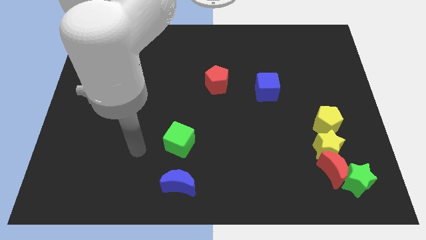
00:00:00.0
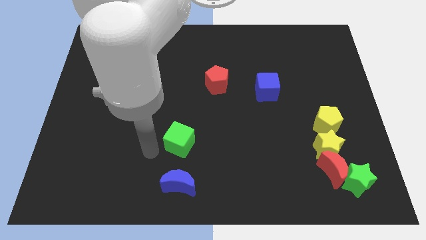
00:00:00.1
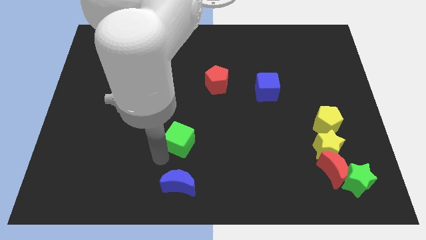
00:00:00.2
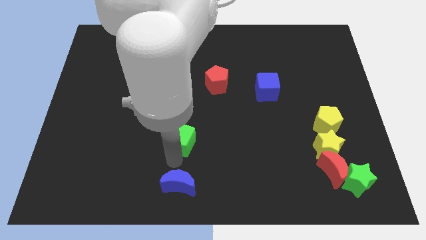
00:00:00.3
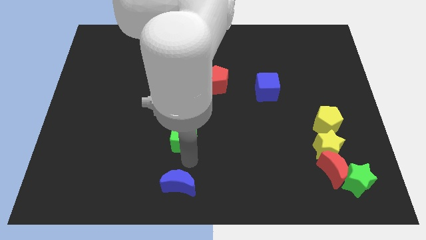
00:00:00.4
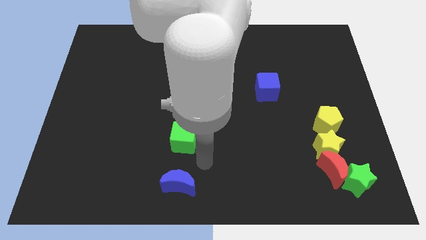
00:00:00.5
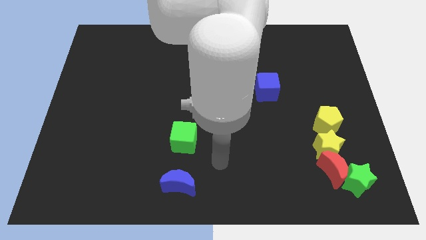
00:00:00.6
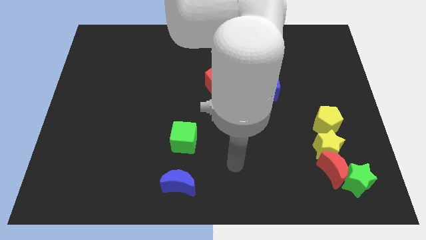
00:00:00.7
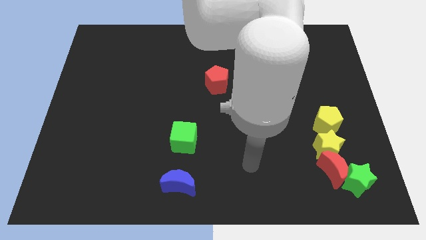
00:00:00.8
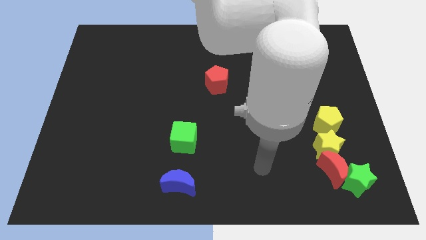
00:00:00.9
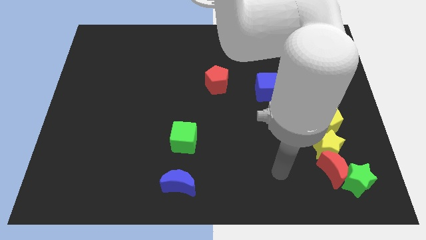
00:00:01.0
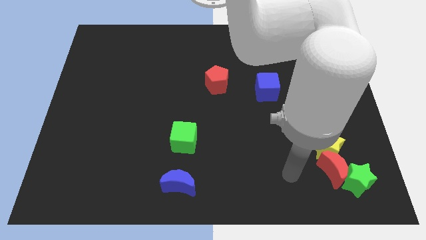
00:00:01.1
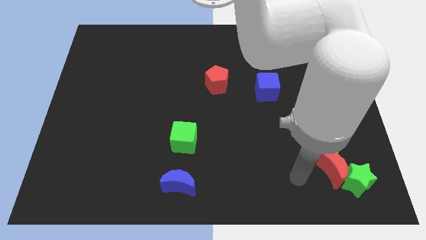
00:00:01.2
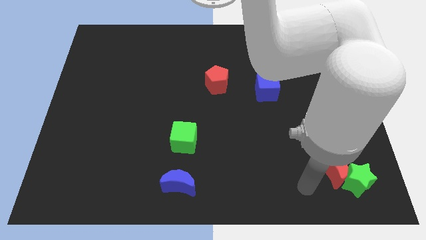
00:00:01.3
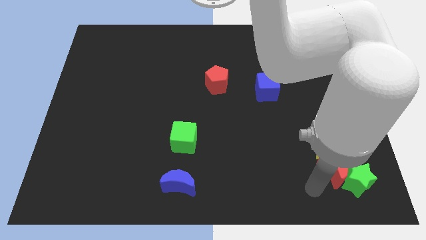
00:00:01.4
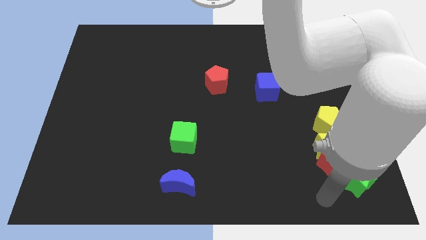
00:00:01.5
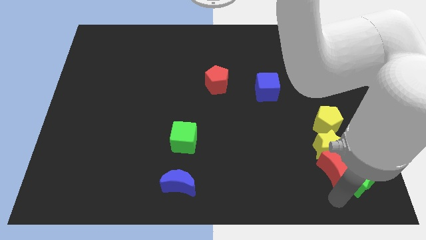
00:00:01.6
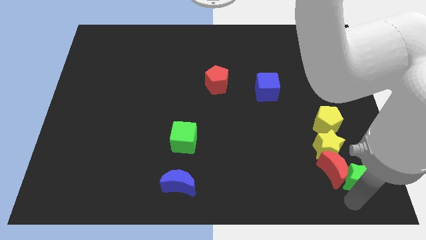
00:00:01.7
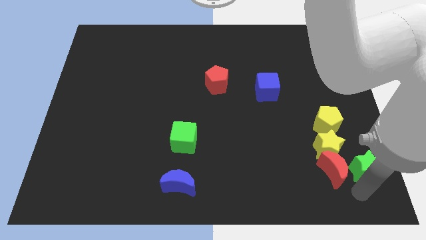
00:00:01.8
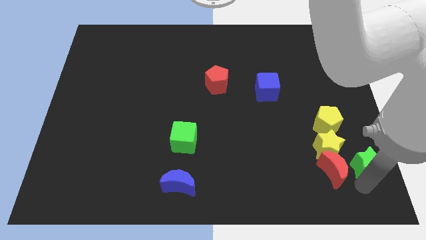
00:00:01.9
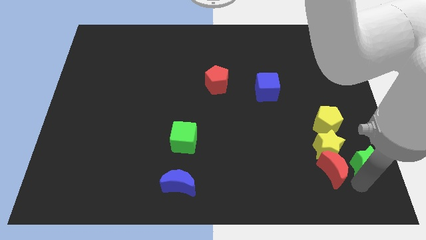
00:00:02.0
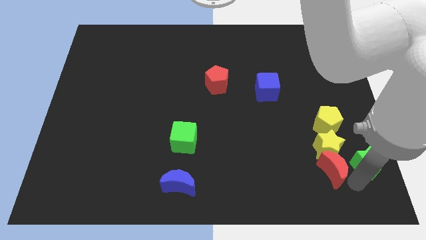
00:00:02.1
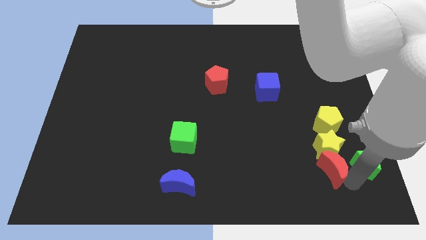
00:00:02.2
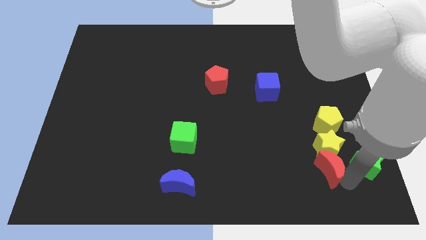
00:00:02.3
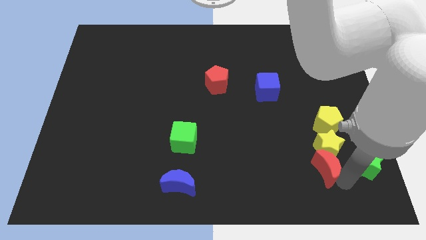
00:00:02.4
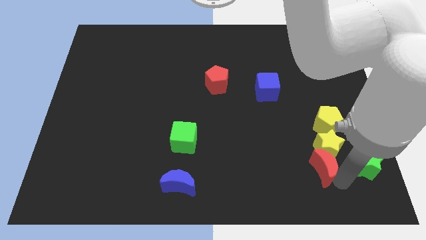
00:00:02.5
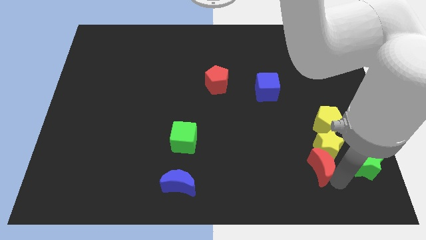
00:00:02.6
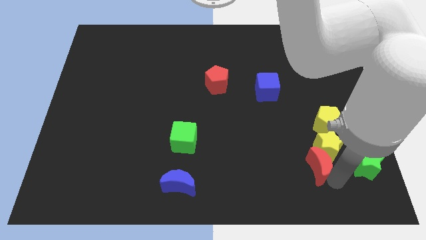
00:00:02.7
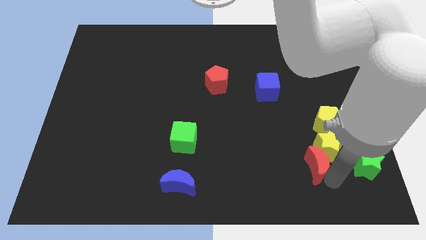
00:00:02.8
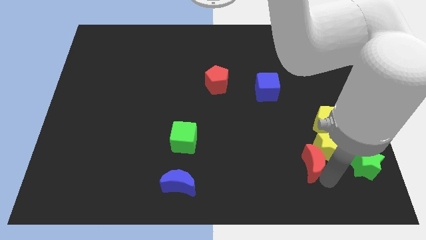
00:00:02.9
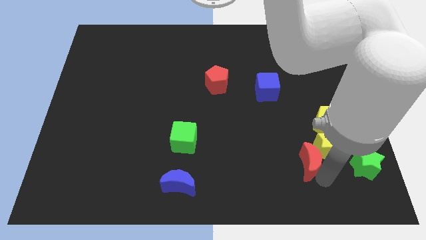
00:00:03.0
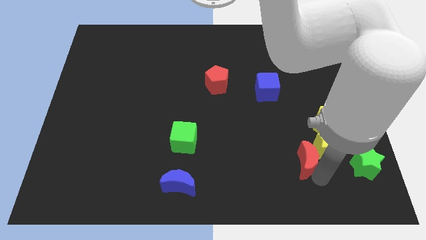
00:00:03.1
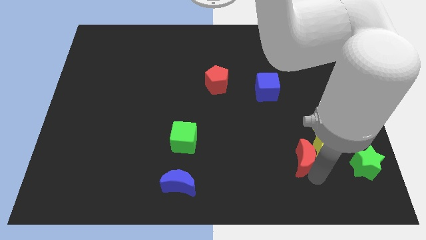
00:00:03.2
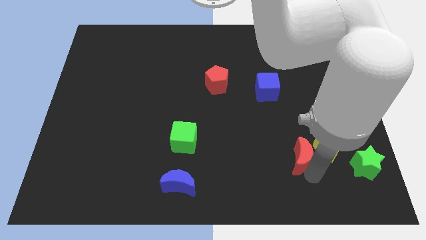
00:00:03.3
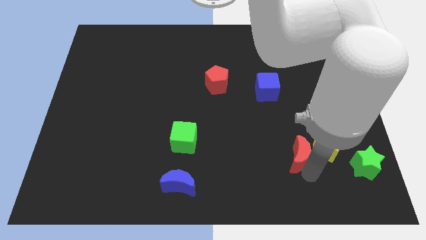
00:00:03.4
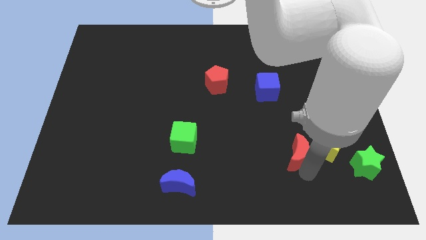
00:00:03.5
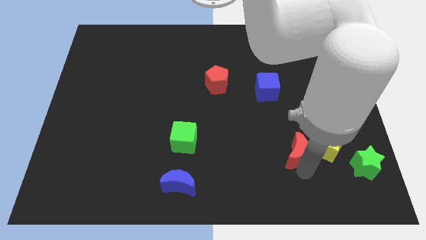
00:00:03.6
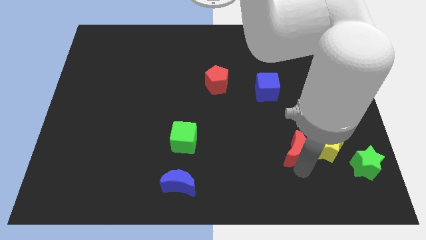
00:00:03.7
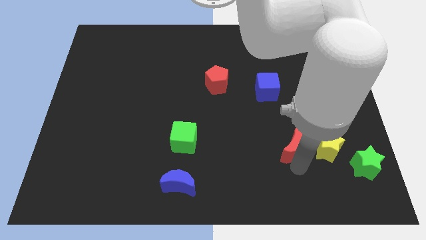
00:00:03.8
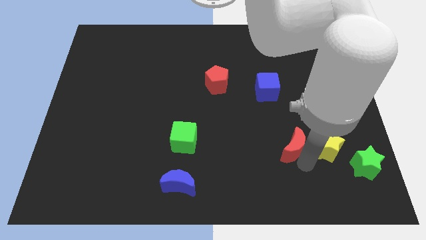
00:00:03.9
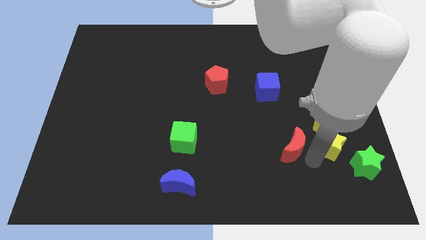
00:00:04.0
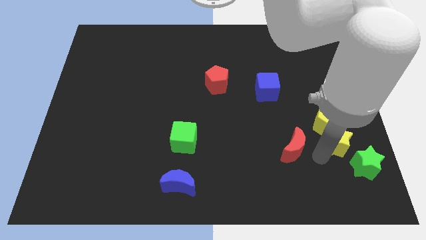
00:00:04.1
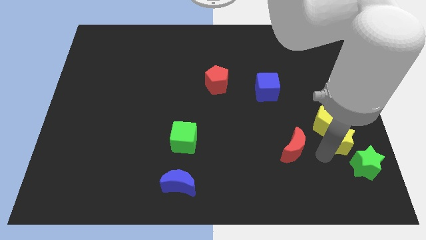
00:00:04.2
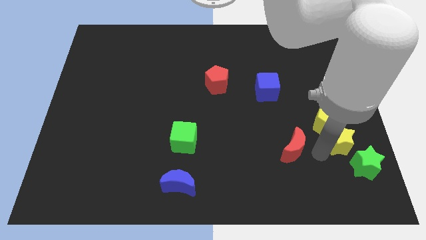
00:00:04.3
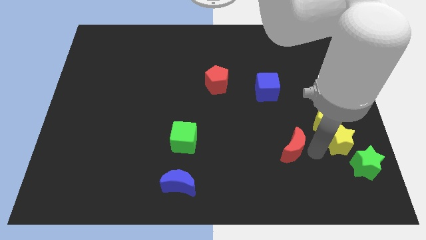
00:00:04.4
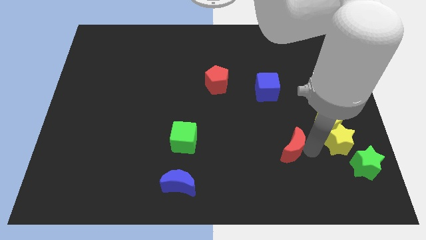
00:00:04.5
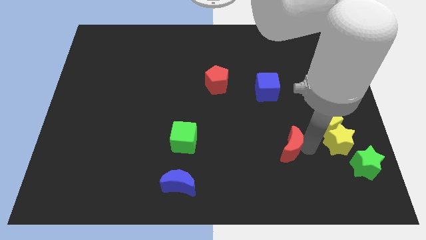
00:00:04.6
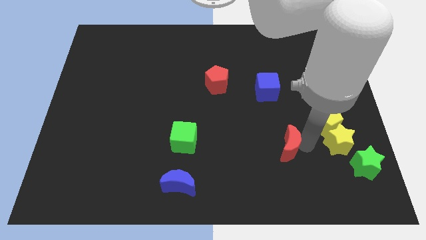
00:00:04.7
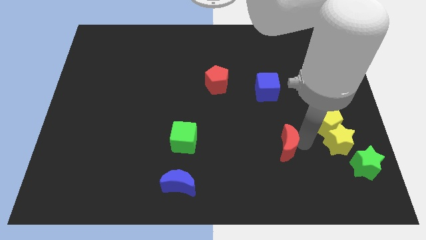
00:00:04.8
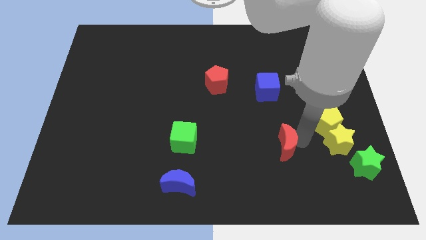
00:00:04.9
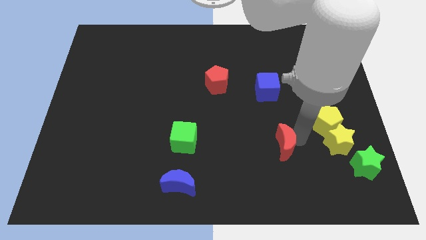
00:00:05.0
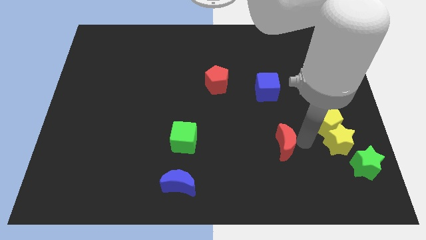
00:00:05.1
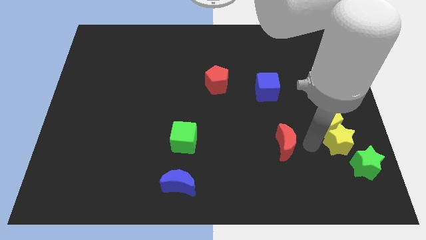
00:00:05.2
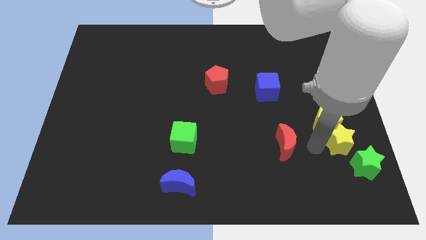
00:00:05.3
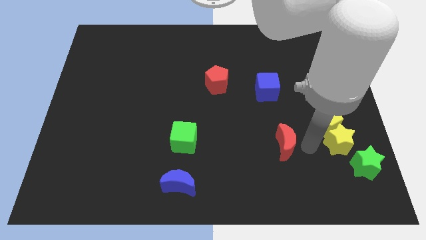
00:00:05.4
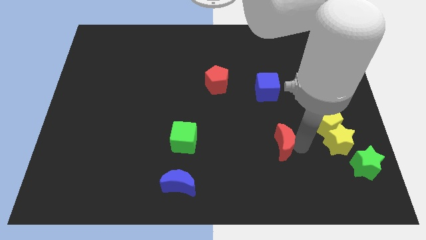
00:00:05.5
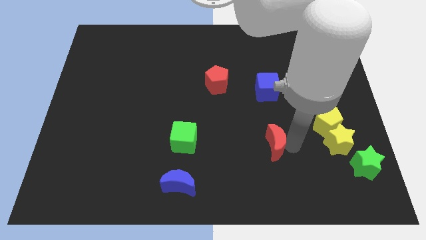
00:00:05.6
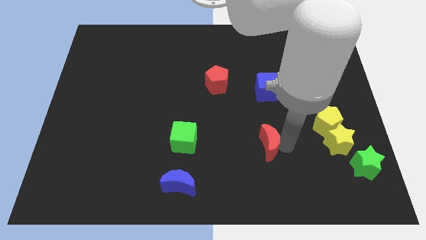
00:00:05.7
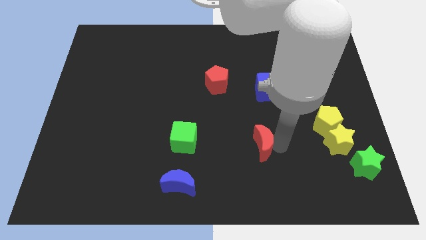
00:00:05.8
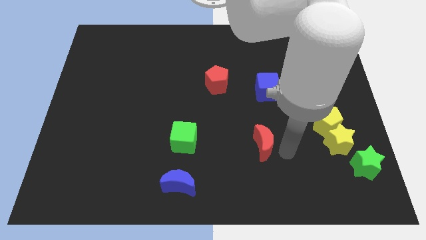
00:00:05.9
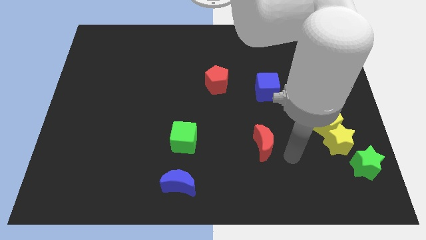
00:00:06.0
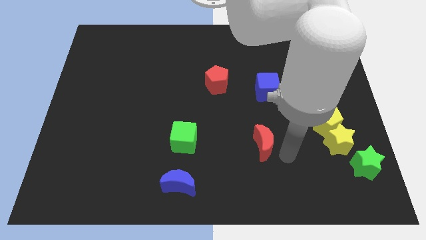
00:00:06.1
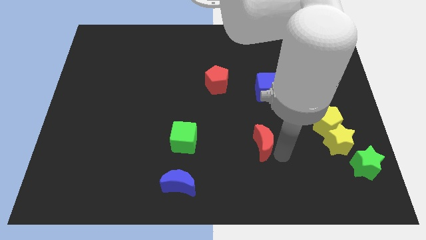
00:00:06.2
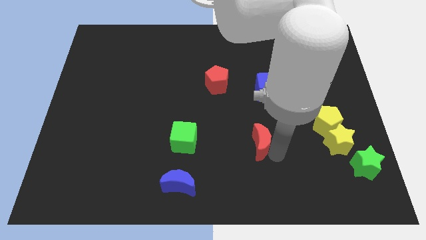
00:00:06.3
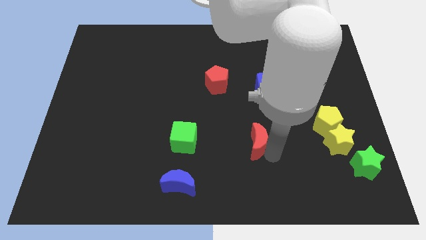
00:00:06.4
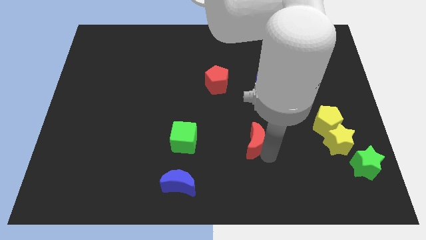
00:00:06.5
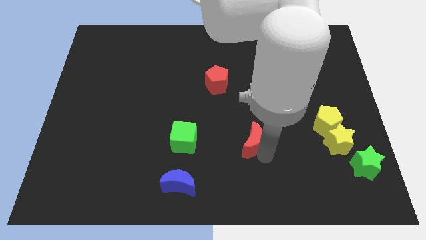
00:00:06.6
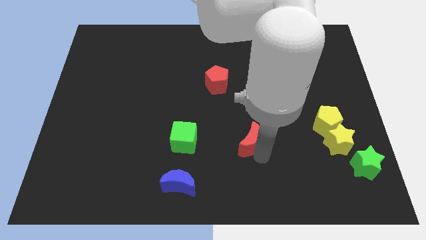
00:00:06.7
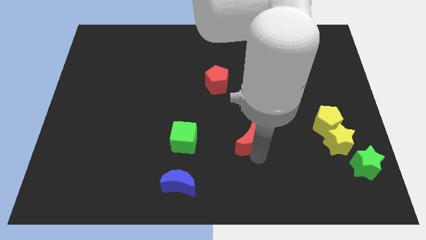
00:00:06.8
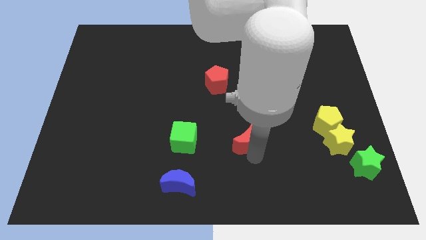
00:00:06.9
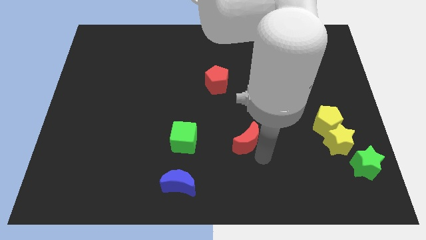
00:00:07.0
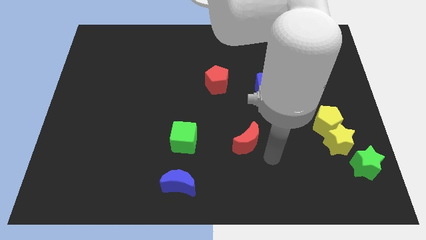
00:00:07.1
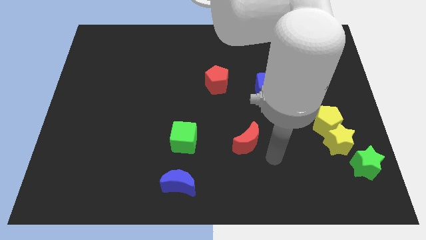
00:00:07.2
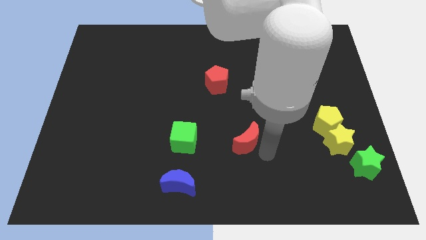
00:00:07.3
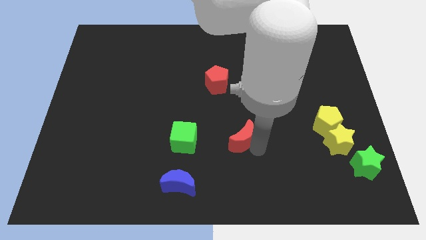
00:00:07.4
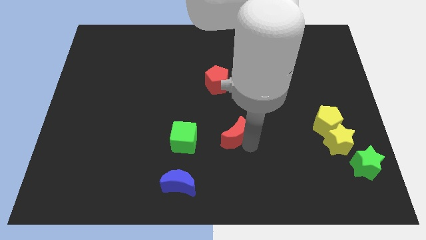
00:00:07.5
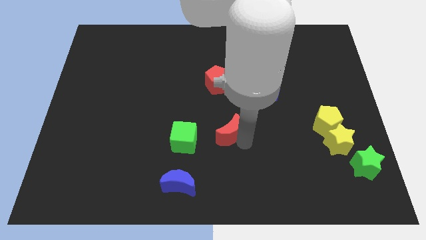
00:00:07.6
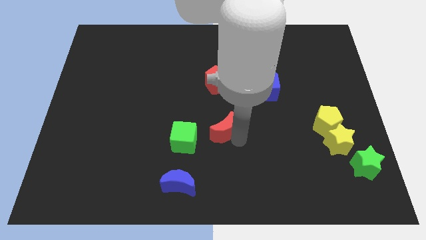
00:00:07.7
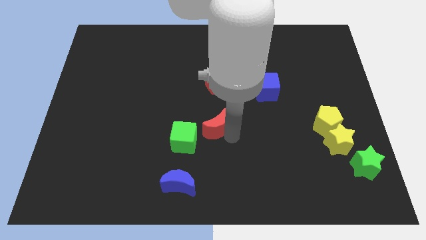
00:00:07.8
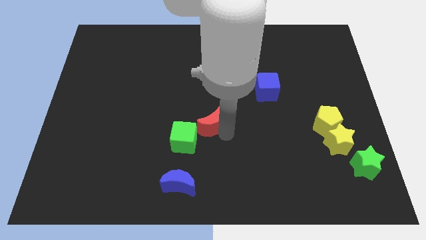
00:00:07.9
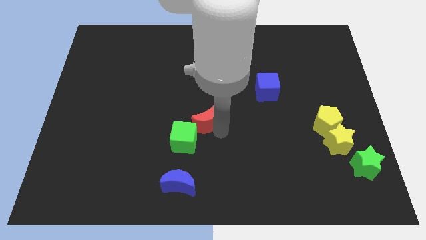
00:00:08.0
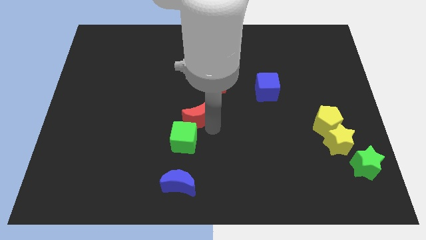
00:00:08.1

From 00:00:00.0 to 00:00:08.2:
push the red moon above the green cube
